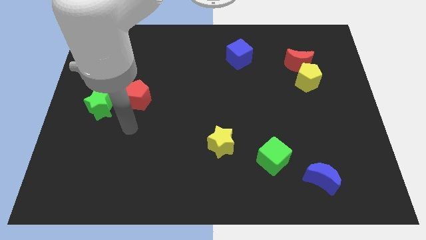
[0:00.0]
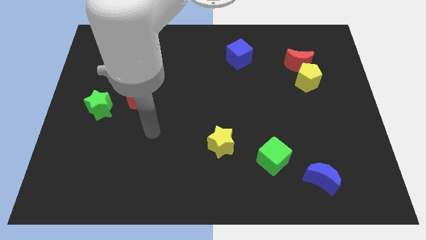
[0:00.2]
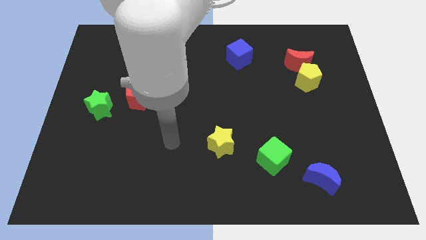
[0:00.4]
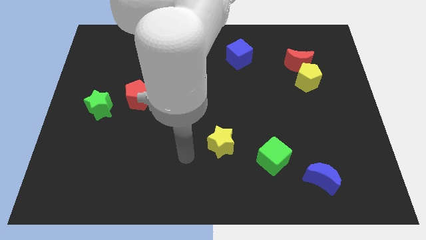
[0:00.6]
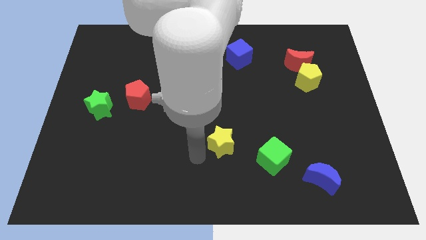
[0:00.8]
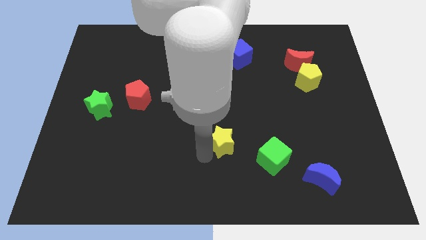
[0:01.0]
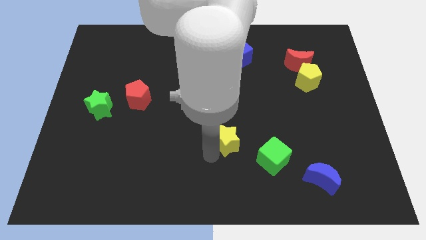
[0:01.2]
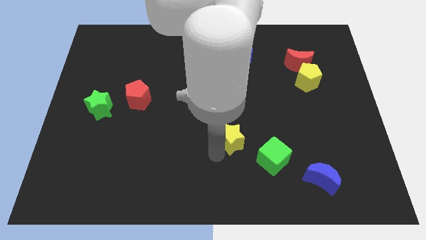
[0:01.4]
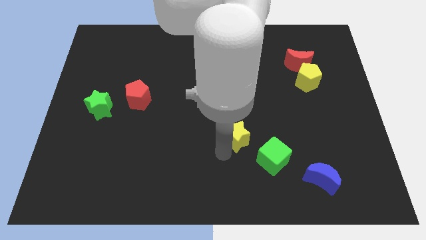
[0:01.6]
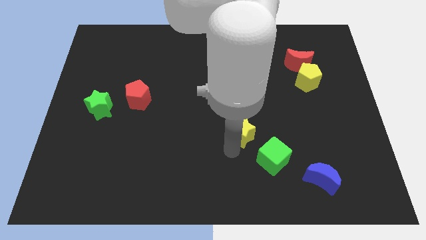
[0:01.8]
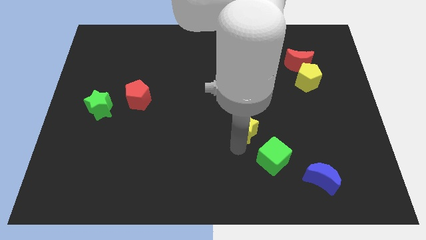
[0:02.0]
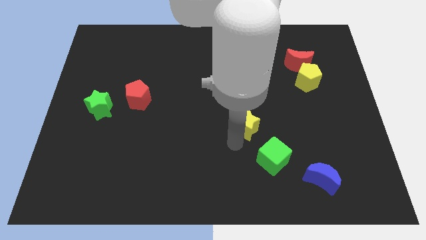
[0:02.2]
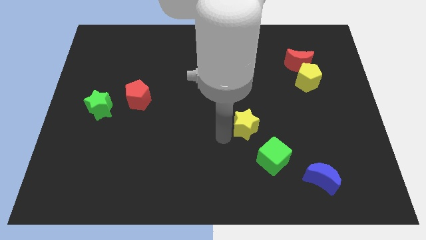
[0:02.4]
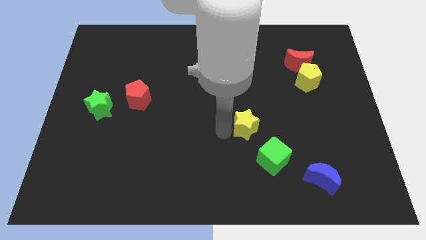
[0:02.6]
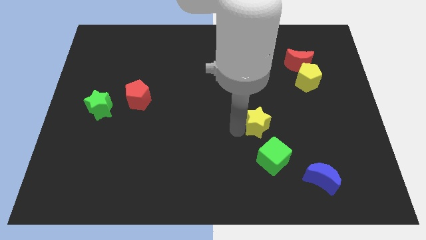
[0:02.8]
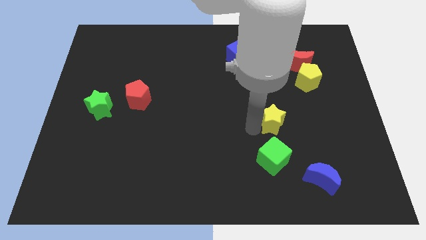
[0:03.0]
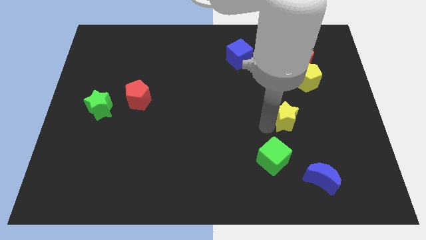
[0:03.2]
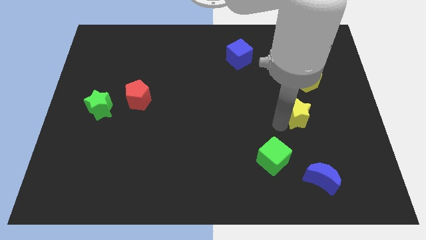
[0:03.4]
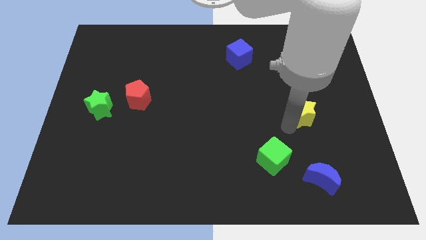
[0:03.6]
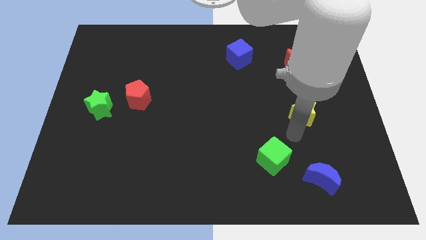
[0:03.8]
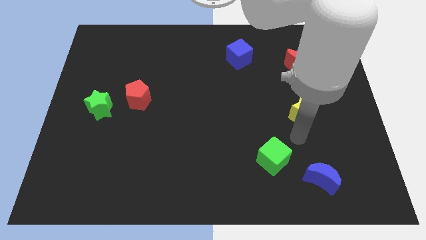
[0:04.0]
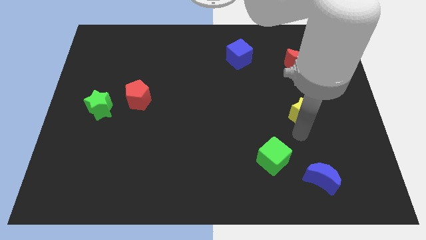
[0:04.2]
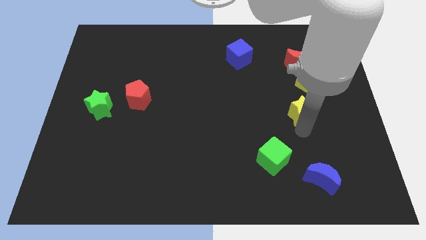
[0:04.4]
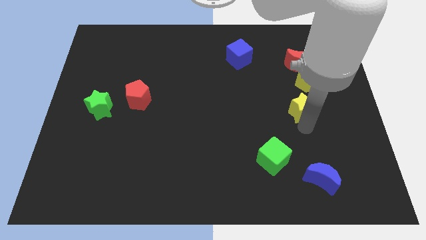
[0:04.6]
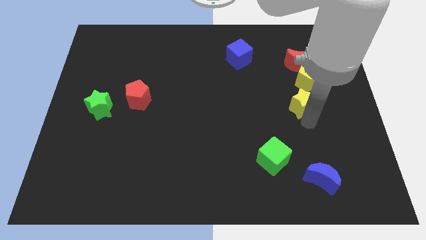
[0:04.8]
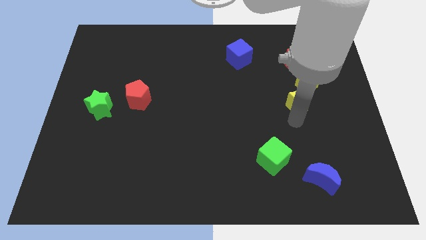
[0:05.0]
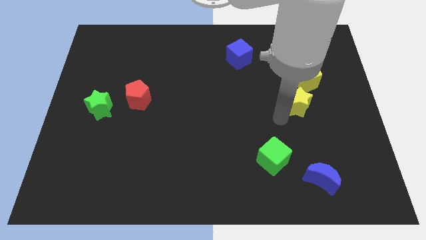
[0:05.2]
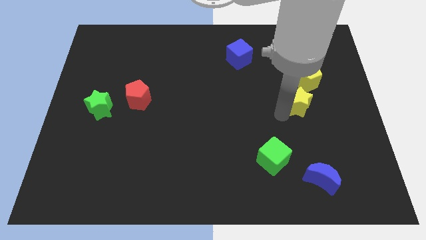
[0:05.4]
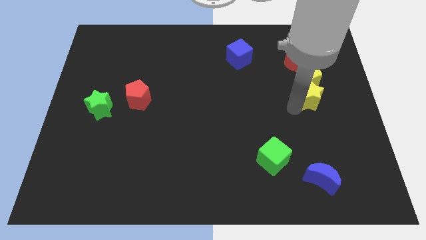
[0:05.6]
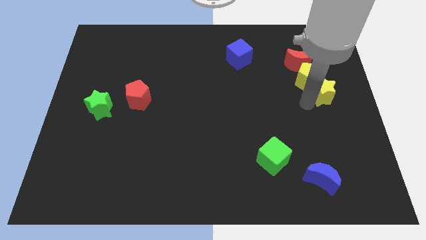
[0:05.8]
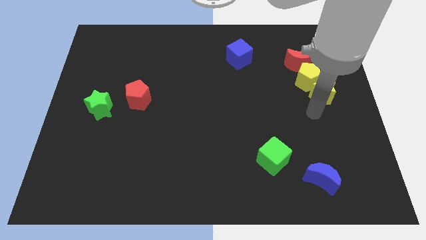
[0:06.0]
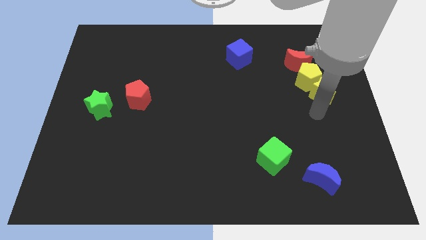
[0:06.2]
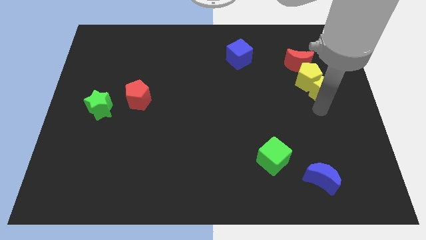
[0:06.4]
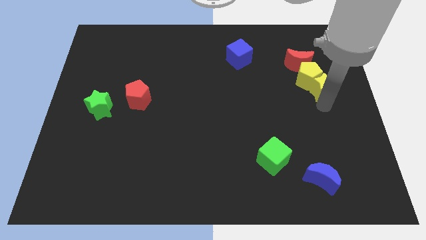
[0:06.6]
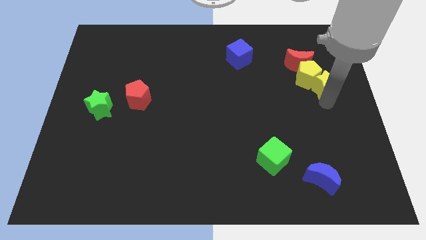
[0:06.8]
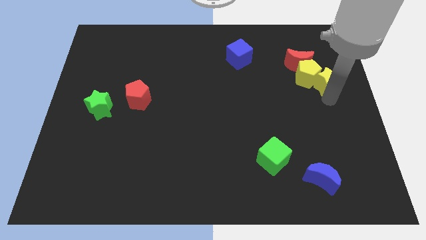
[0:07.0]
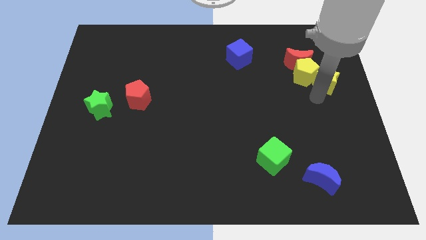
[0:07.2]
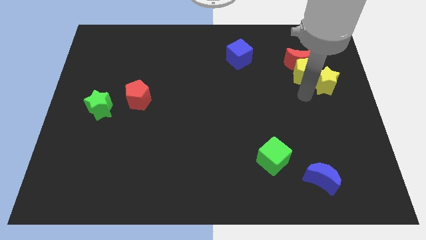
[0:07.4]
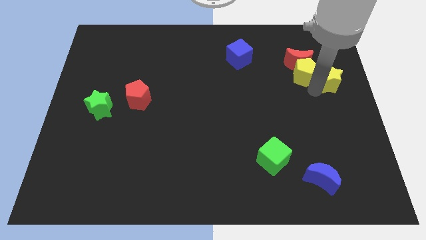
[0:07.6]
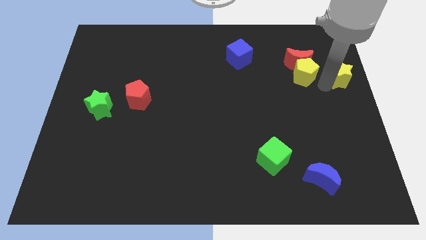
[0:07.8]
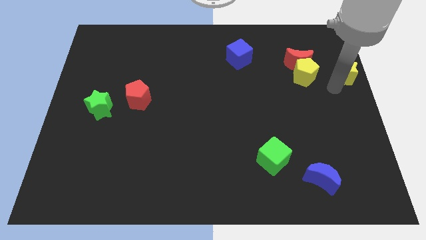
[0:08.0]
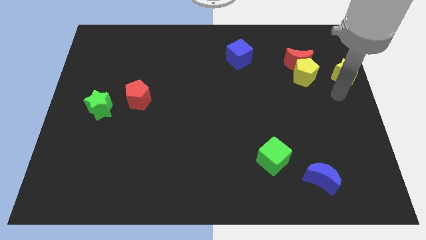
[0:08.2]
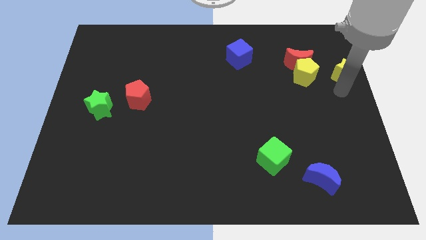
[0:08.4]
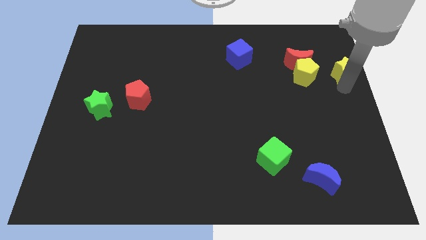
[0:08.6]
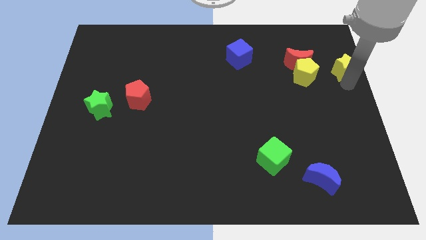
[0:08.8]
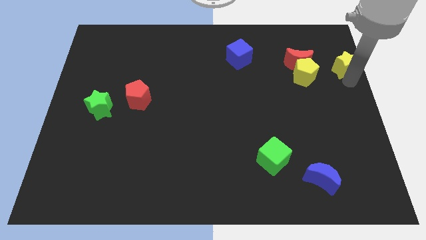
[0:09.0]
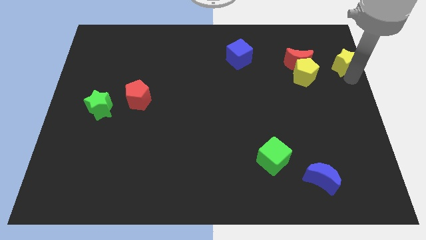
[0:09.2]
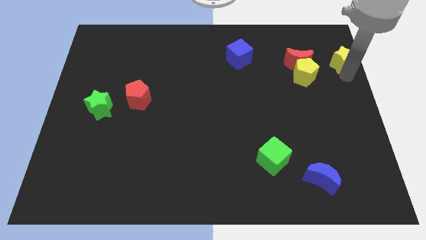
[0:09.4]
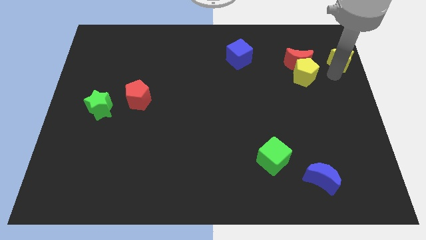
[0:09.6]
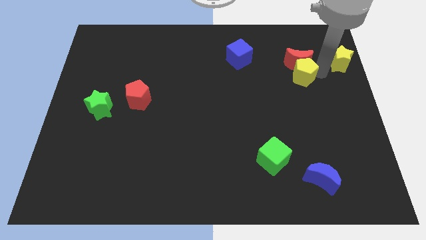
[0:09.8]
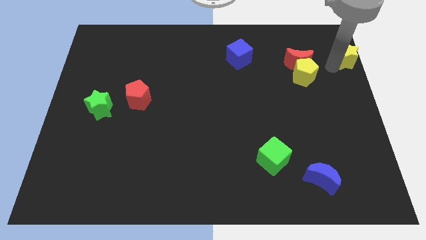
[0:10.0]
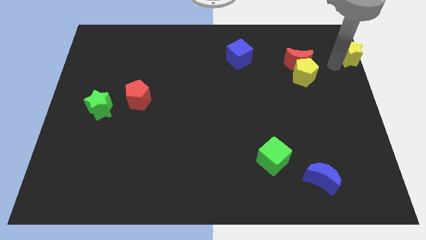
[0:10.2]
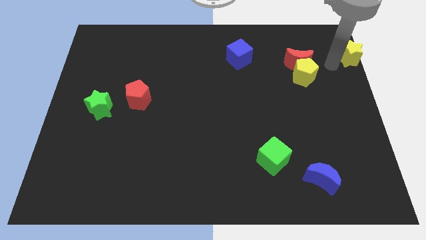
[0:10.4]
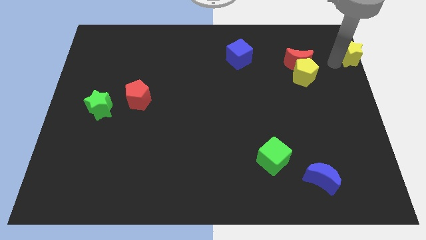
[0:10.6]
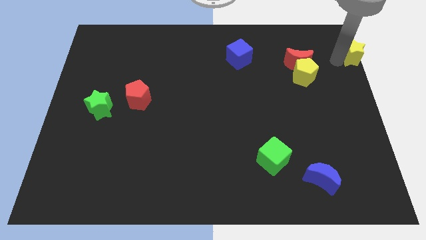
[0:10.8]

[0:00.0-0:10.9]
slide the yellow star to the top right

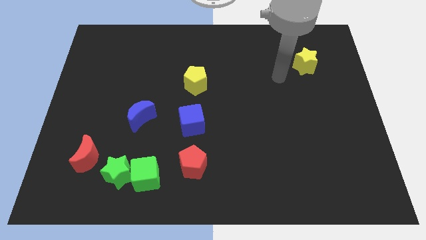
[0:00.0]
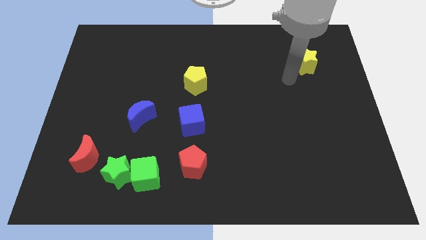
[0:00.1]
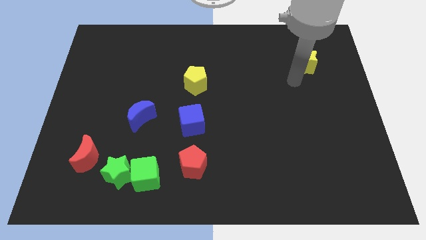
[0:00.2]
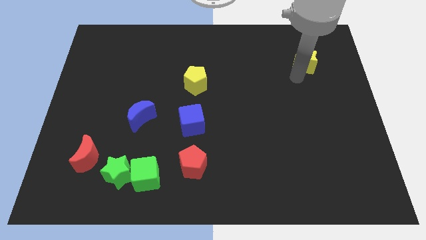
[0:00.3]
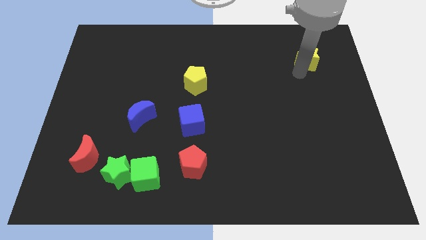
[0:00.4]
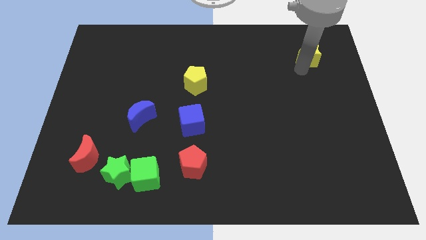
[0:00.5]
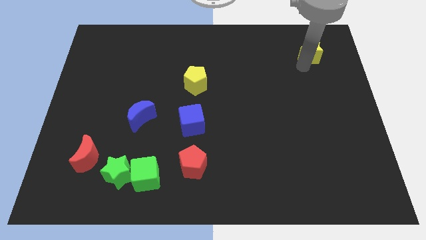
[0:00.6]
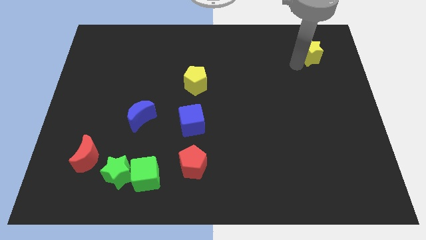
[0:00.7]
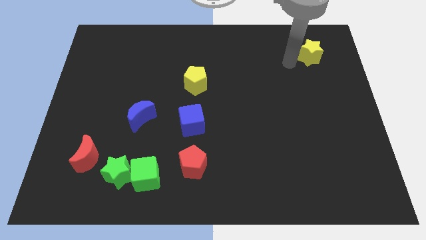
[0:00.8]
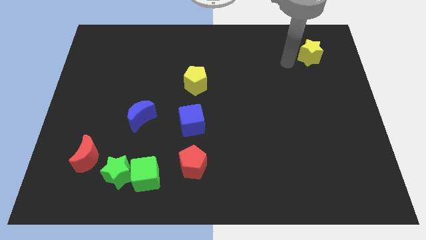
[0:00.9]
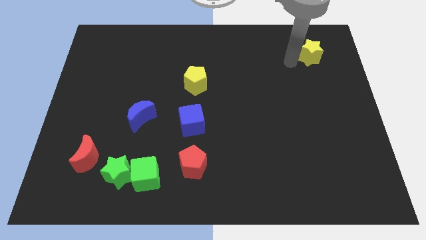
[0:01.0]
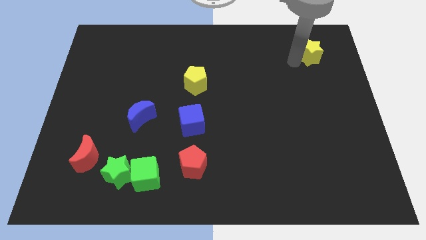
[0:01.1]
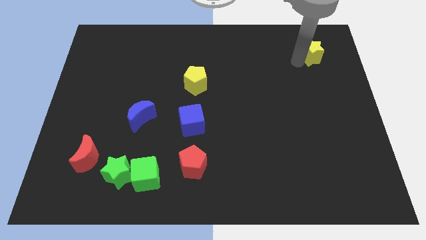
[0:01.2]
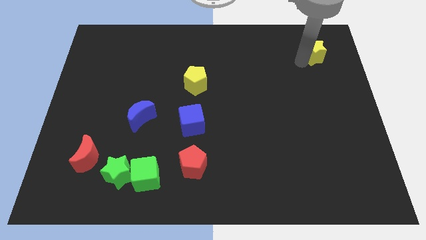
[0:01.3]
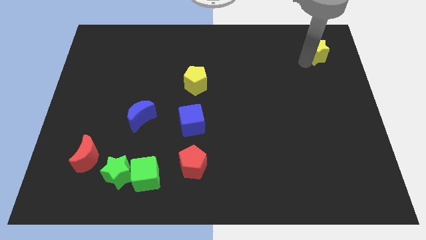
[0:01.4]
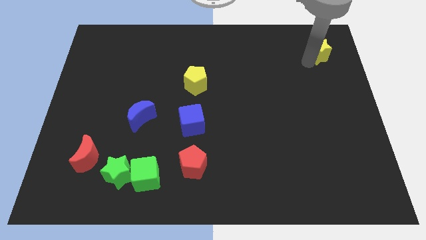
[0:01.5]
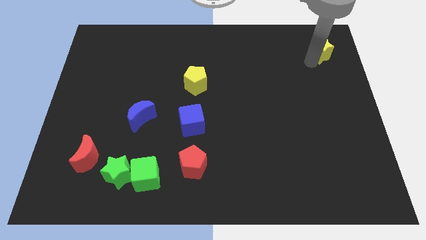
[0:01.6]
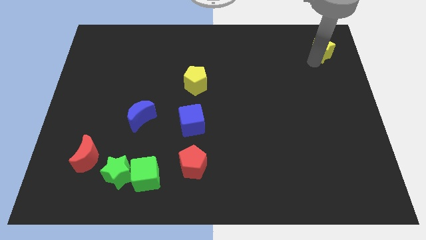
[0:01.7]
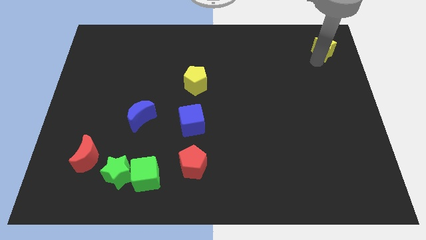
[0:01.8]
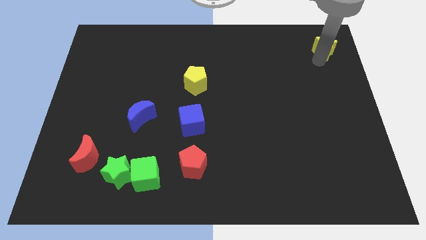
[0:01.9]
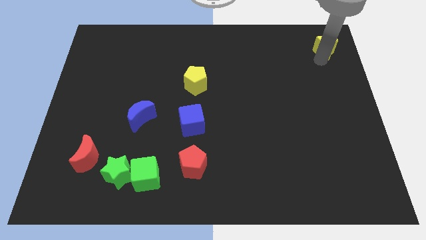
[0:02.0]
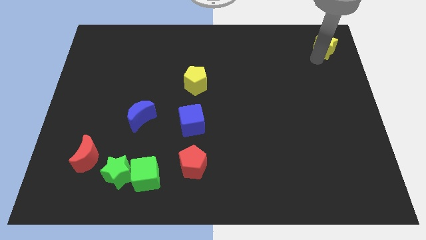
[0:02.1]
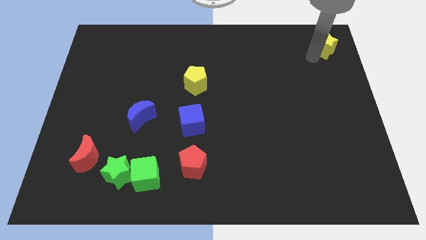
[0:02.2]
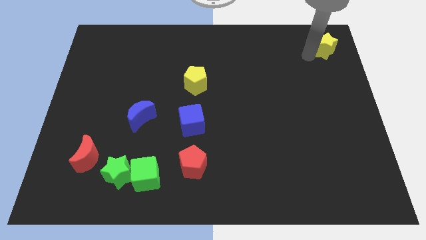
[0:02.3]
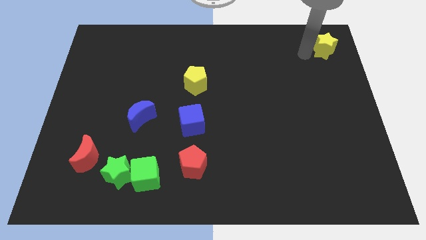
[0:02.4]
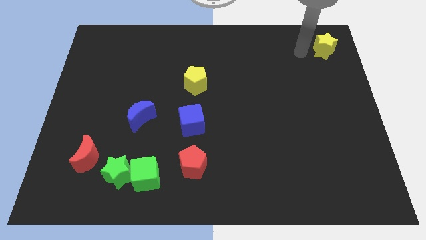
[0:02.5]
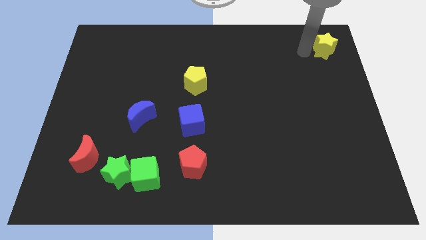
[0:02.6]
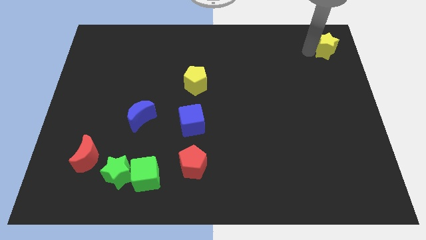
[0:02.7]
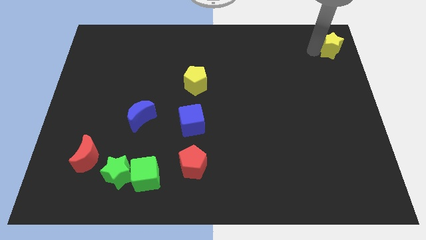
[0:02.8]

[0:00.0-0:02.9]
push the yellow star to the top right
